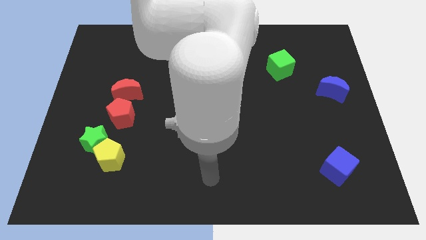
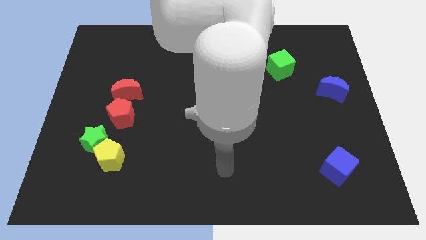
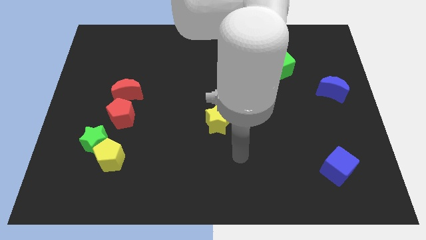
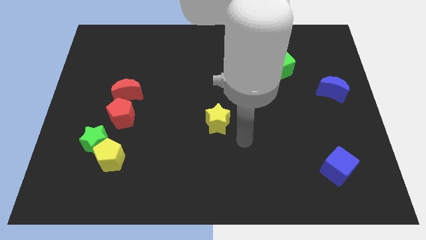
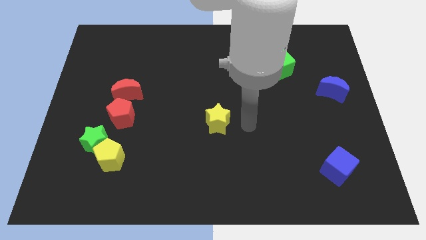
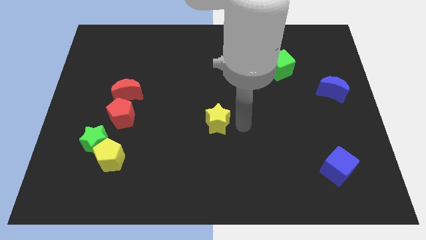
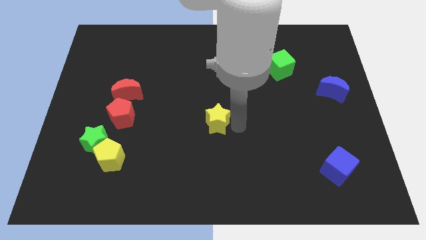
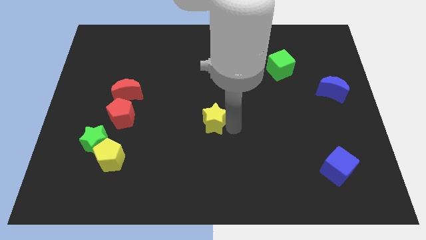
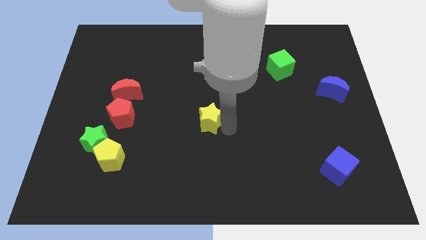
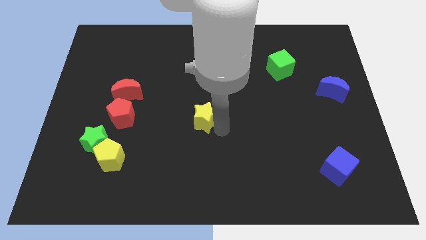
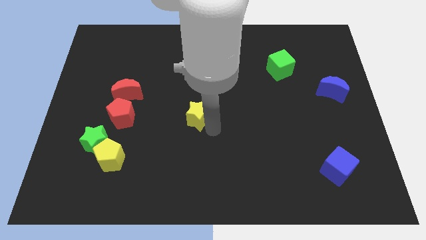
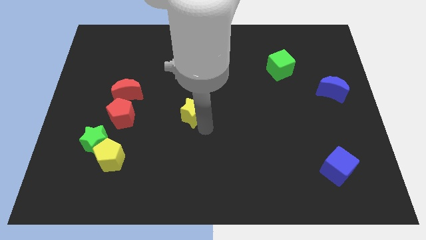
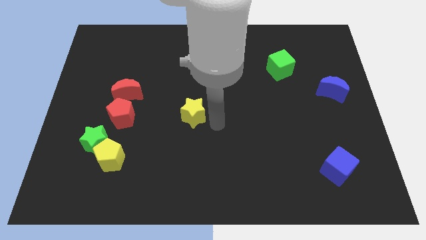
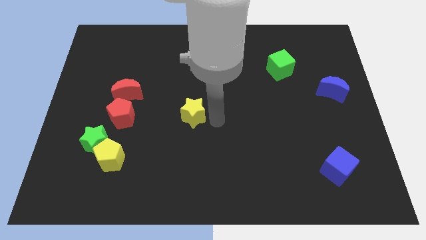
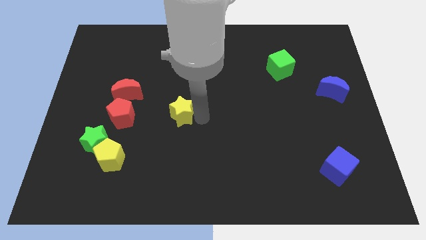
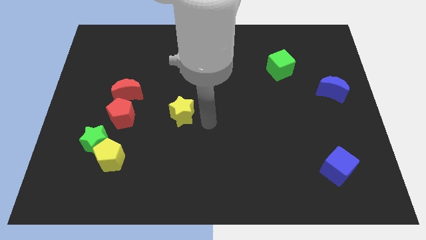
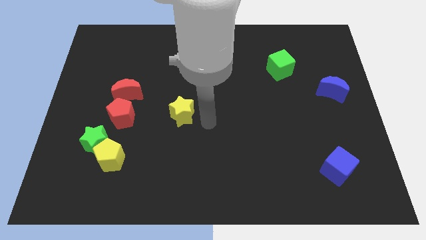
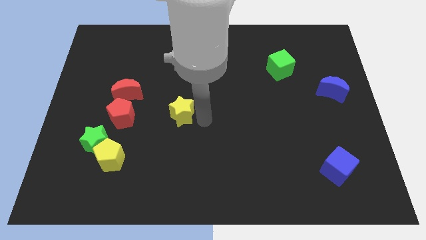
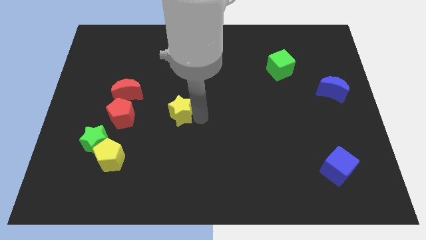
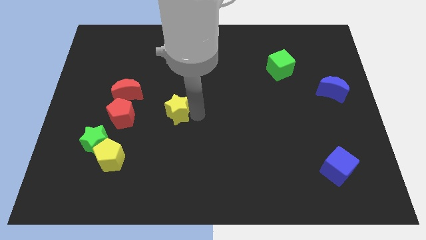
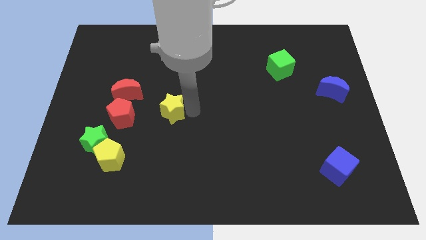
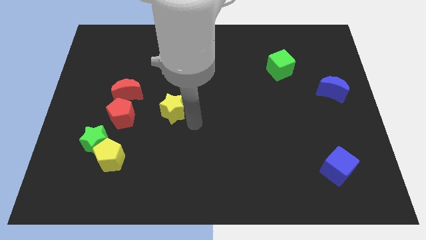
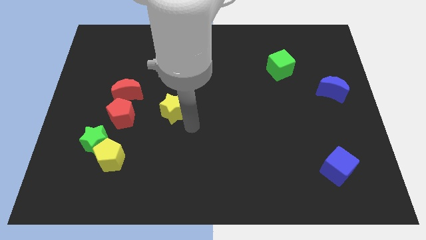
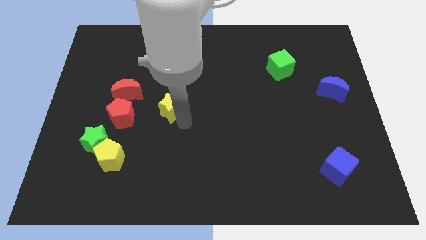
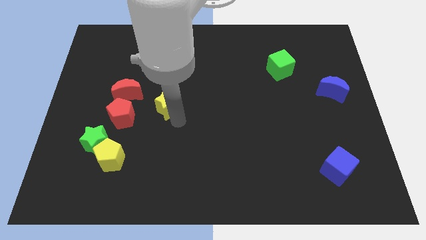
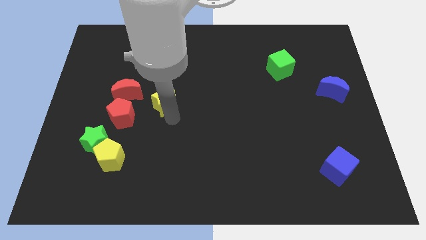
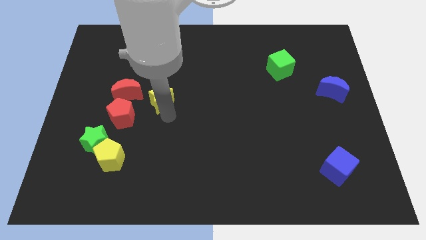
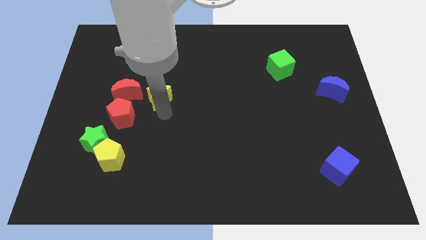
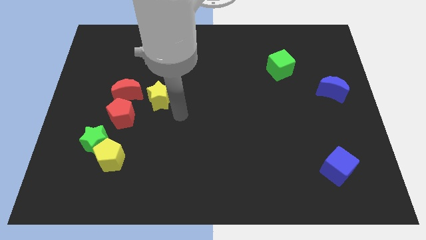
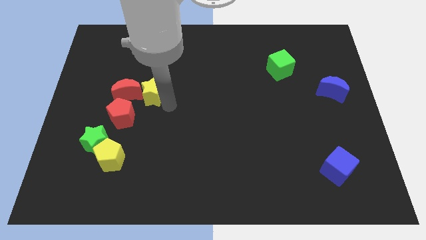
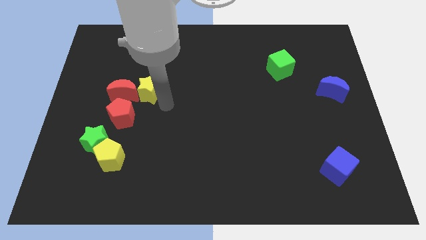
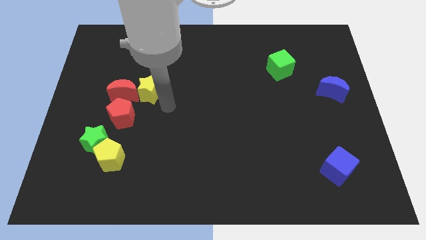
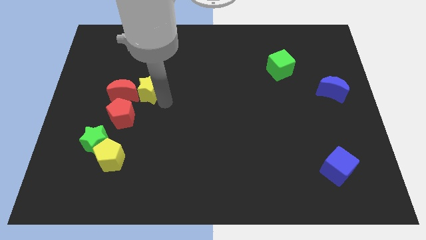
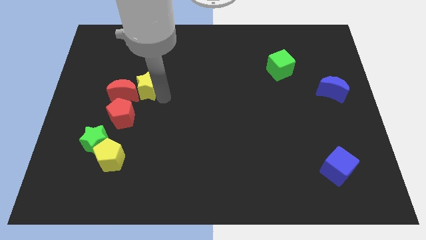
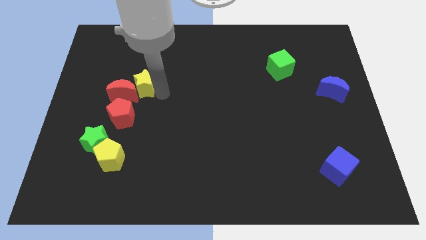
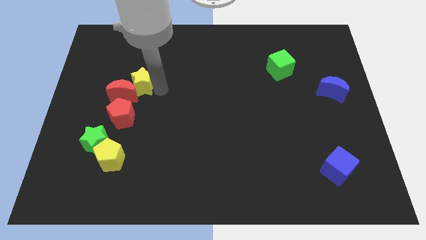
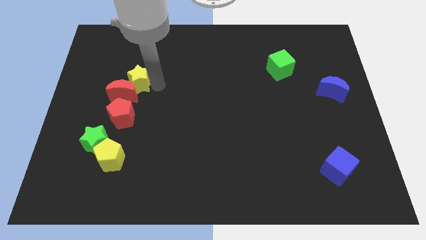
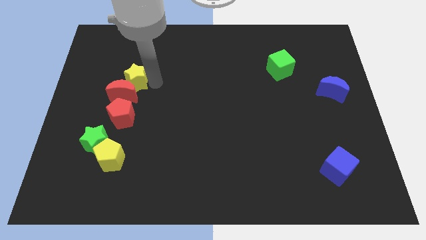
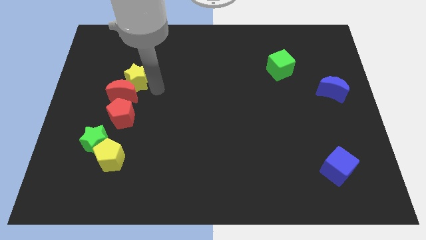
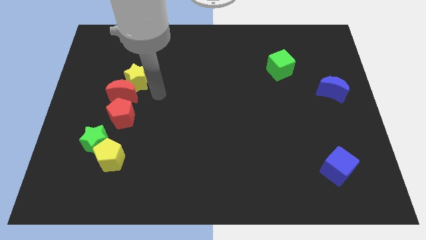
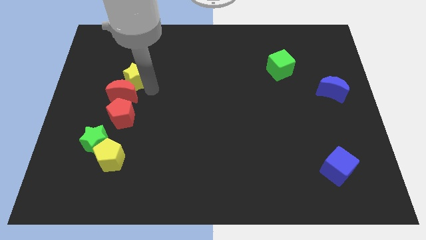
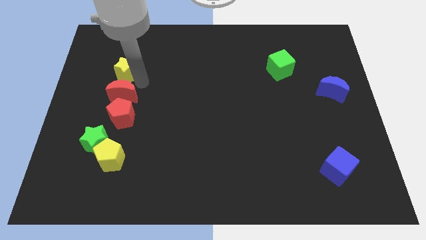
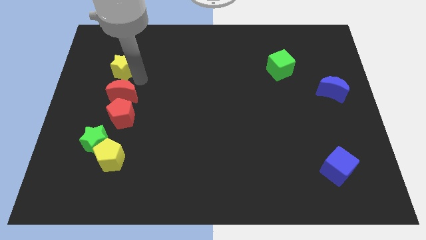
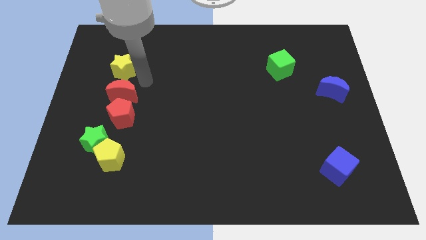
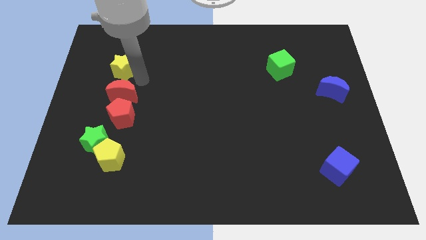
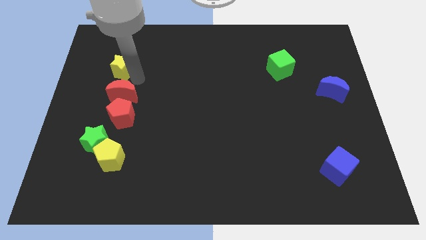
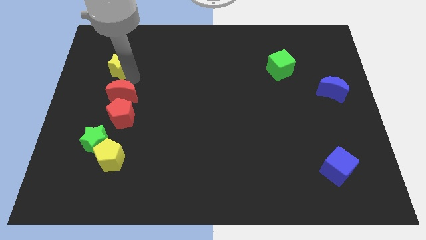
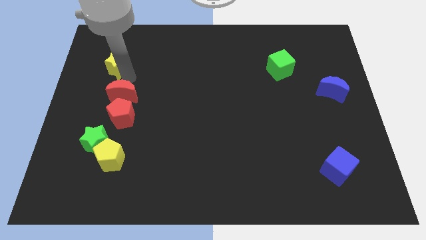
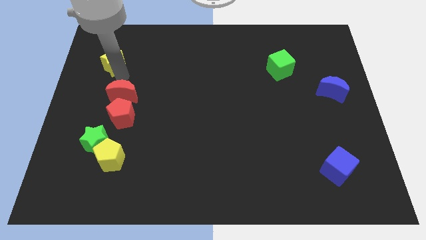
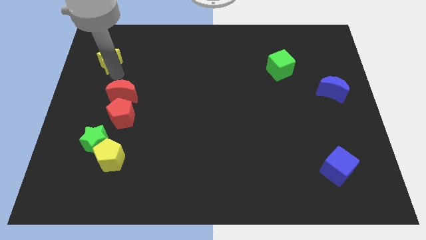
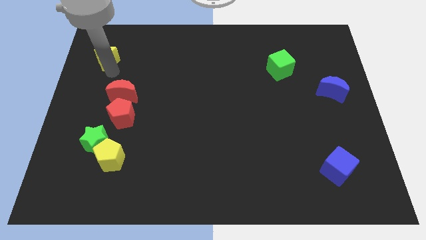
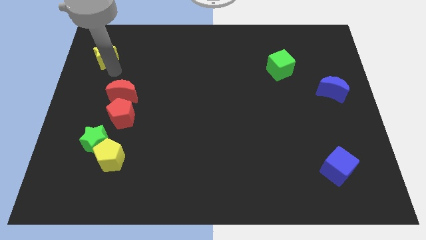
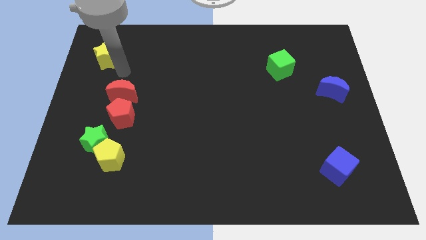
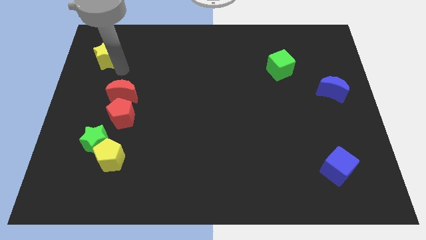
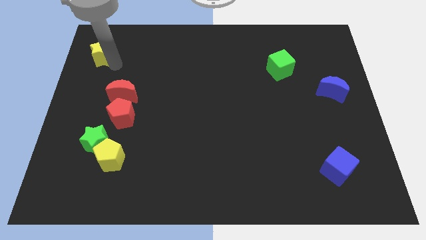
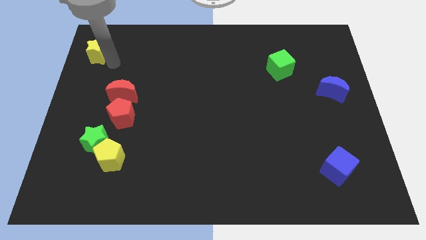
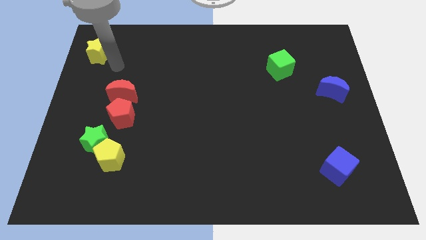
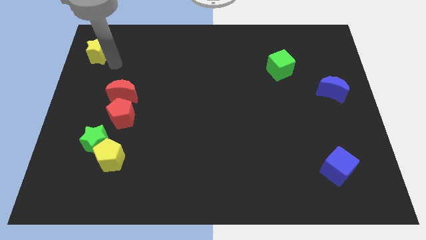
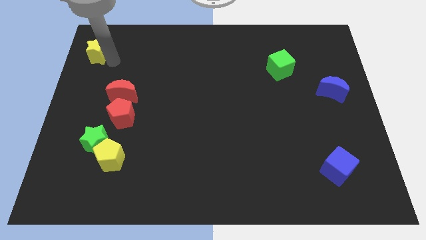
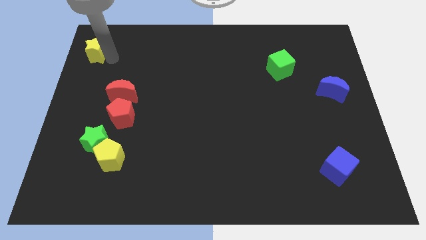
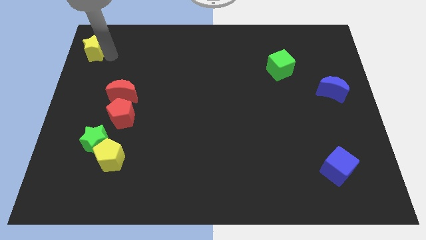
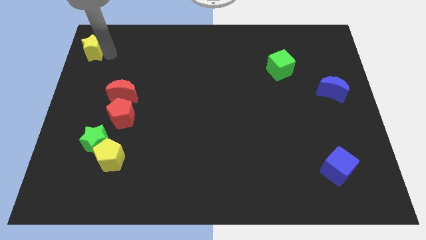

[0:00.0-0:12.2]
move the yellow star to the top left
